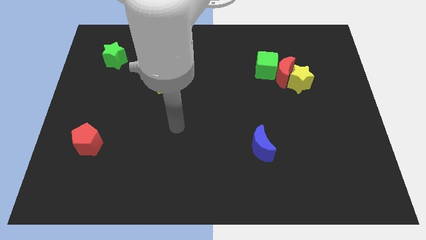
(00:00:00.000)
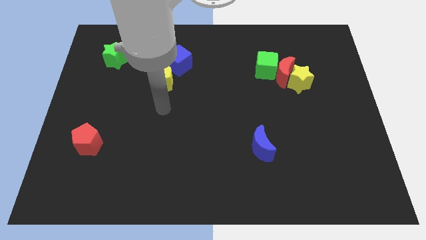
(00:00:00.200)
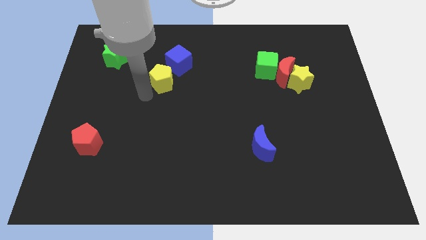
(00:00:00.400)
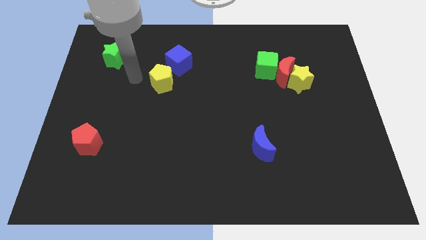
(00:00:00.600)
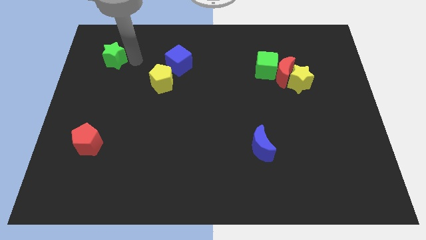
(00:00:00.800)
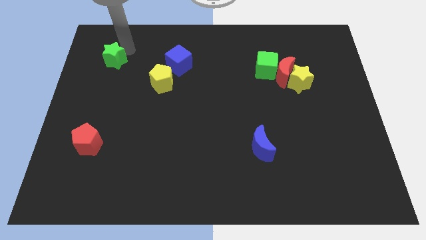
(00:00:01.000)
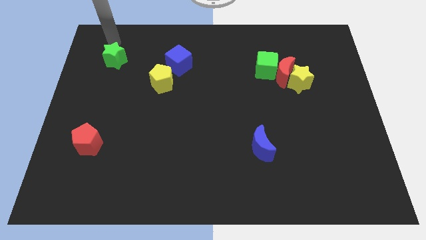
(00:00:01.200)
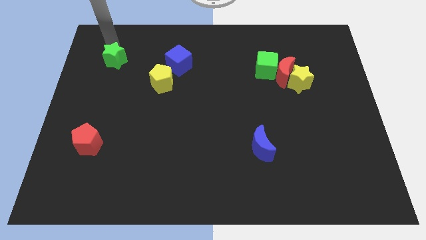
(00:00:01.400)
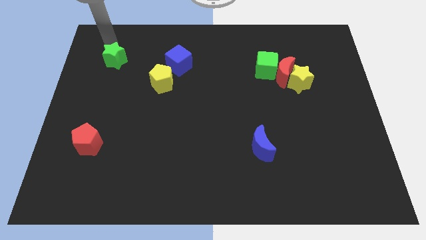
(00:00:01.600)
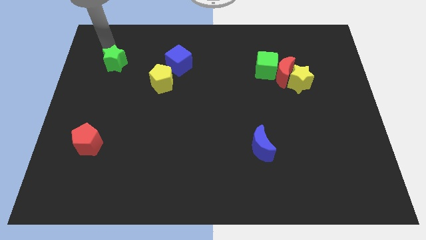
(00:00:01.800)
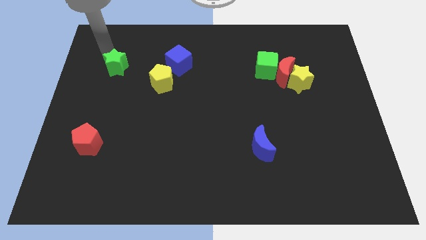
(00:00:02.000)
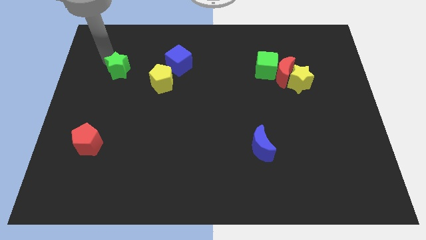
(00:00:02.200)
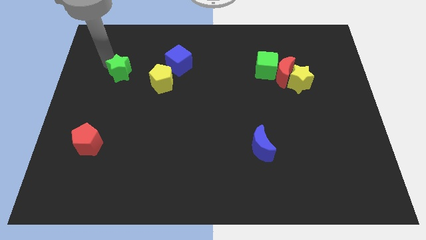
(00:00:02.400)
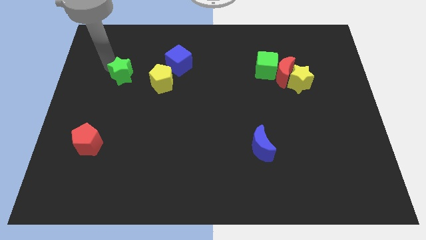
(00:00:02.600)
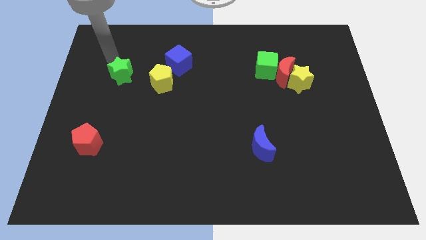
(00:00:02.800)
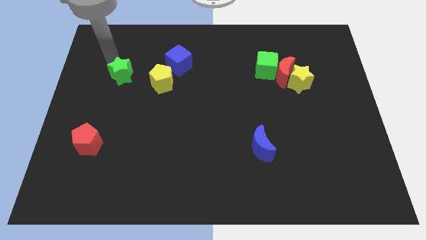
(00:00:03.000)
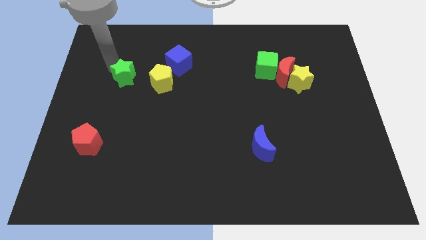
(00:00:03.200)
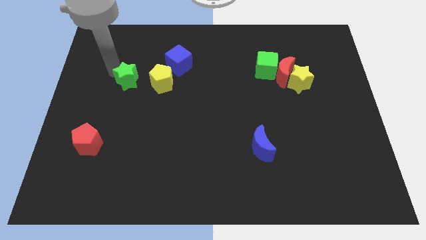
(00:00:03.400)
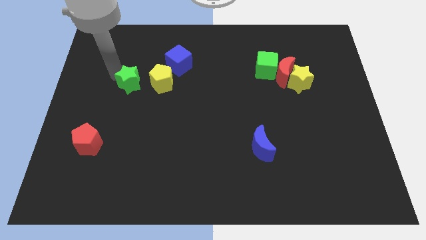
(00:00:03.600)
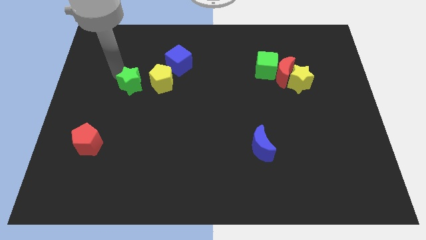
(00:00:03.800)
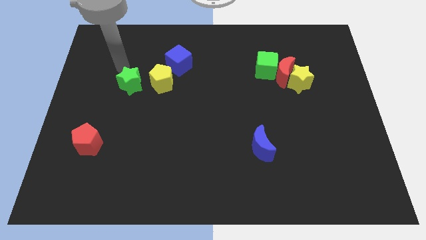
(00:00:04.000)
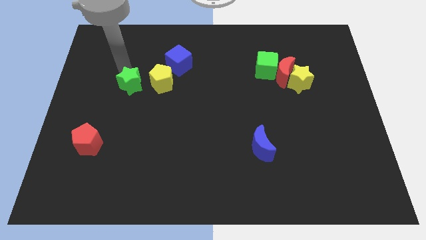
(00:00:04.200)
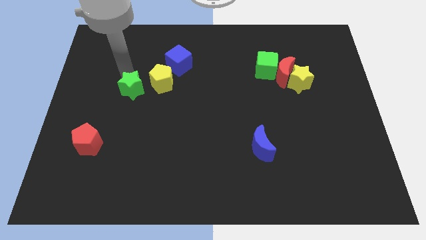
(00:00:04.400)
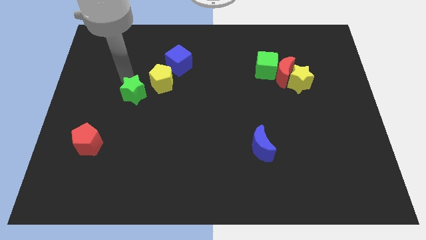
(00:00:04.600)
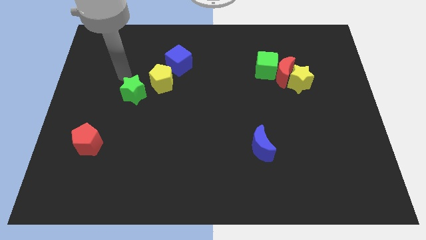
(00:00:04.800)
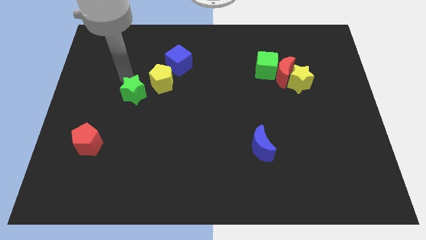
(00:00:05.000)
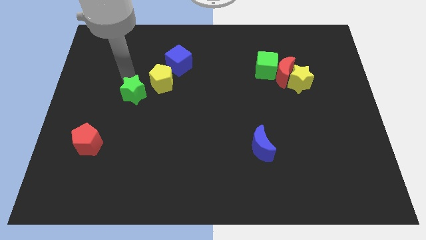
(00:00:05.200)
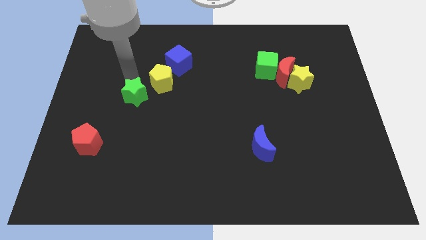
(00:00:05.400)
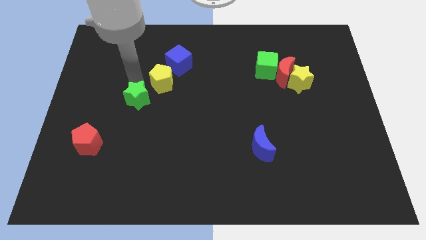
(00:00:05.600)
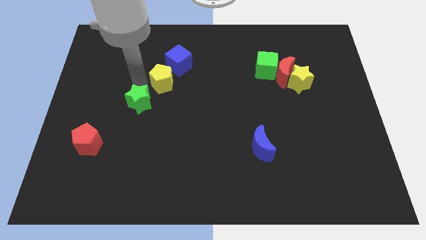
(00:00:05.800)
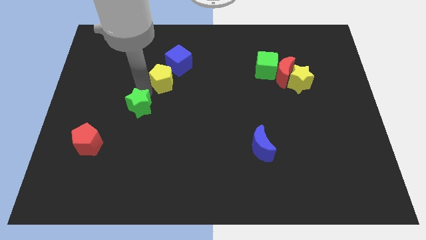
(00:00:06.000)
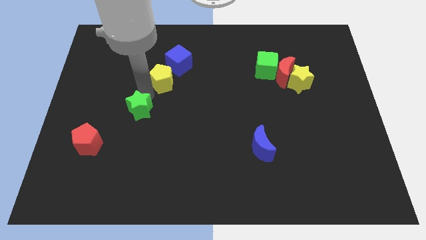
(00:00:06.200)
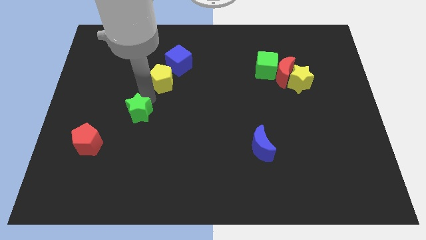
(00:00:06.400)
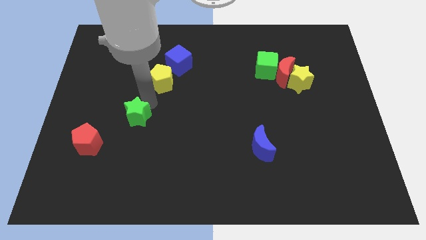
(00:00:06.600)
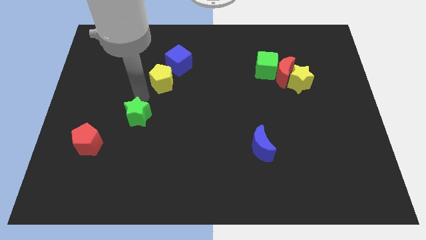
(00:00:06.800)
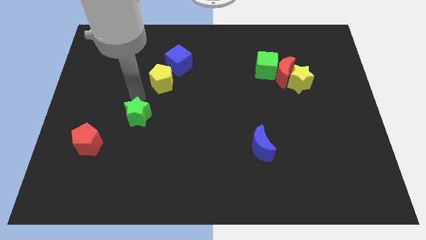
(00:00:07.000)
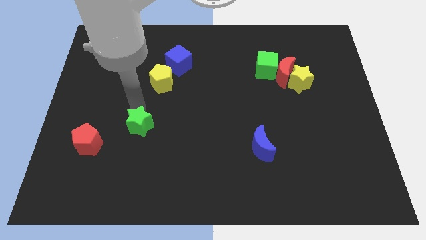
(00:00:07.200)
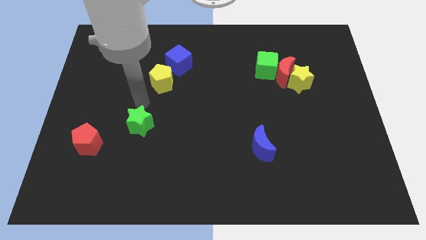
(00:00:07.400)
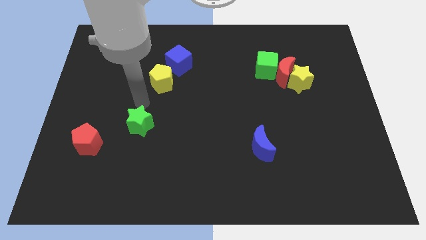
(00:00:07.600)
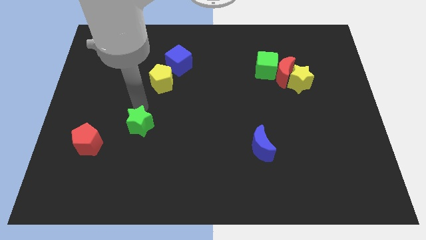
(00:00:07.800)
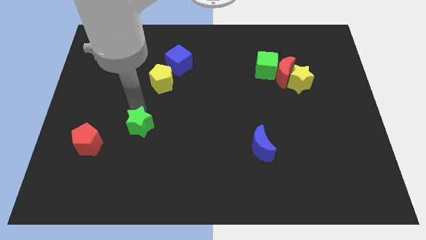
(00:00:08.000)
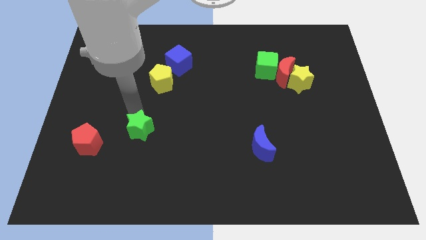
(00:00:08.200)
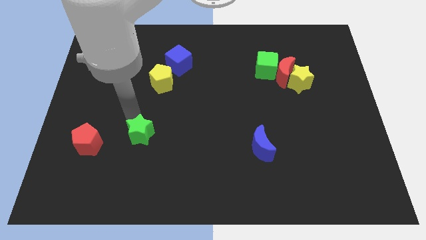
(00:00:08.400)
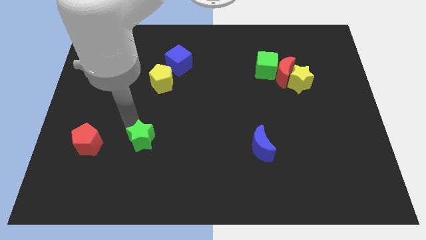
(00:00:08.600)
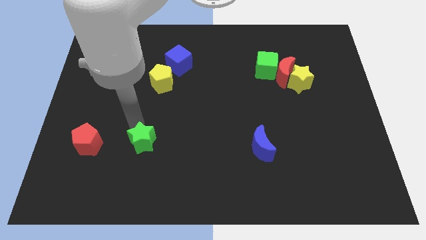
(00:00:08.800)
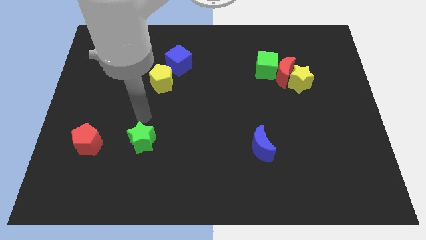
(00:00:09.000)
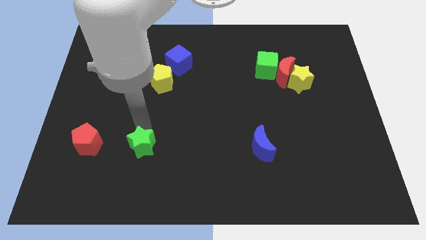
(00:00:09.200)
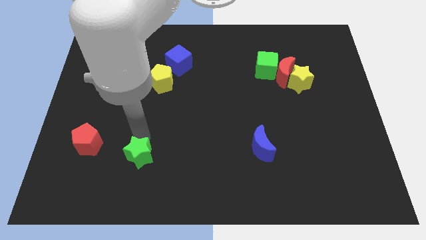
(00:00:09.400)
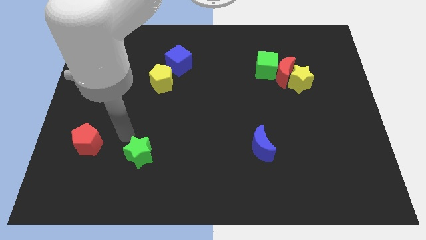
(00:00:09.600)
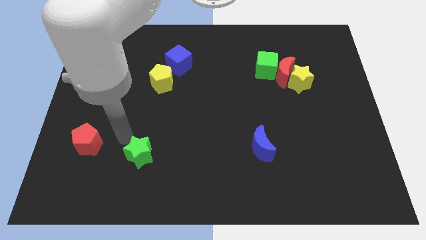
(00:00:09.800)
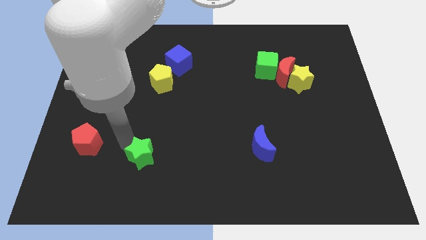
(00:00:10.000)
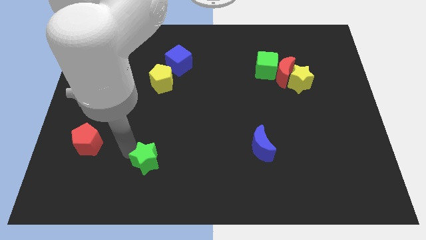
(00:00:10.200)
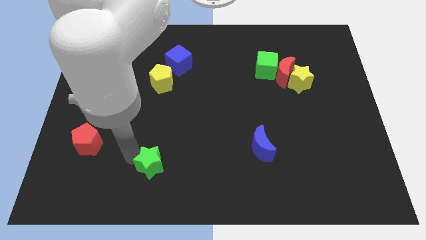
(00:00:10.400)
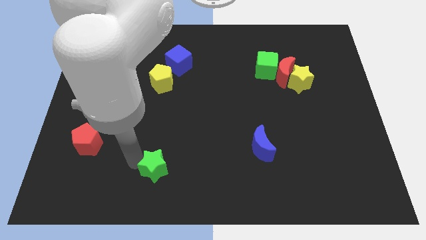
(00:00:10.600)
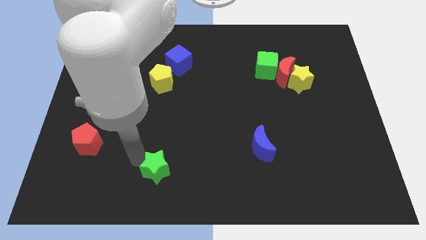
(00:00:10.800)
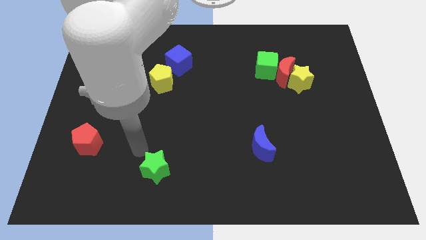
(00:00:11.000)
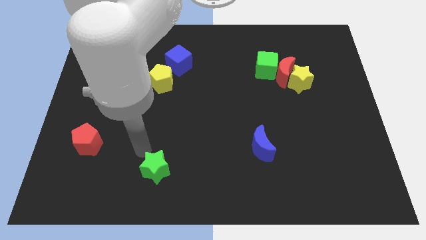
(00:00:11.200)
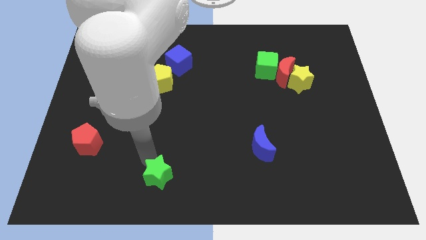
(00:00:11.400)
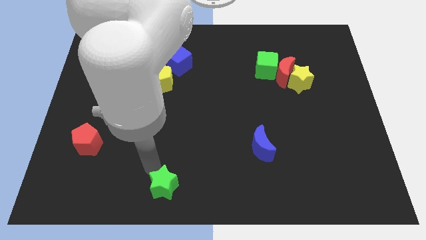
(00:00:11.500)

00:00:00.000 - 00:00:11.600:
push the green star to the bottom

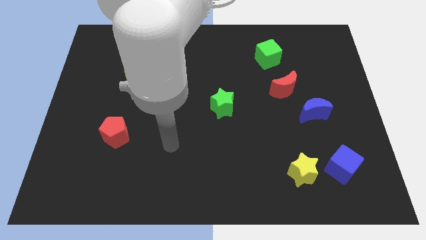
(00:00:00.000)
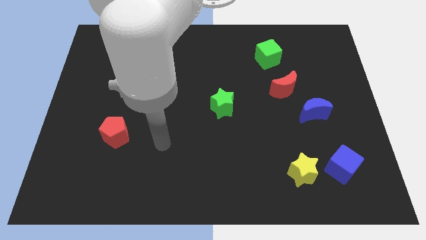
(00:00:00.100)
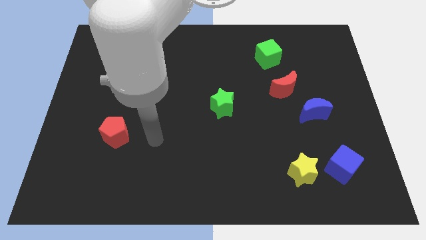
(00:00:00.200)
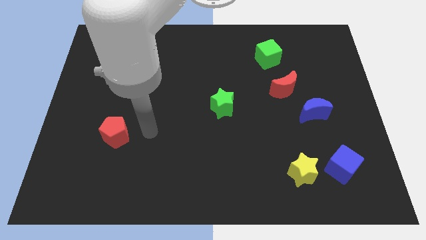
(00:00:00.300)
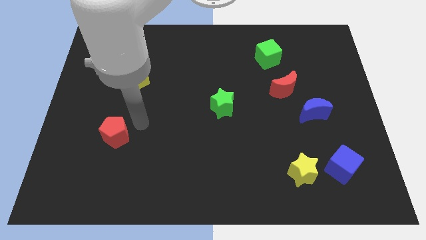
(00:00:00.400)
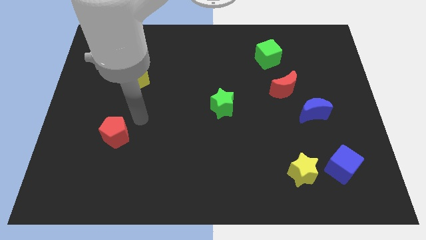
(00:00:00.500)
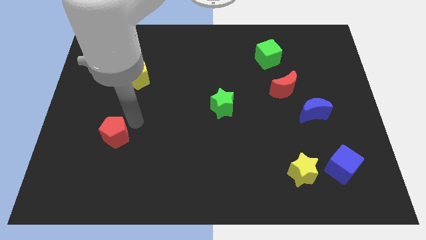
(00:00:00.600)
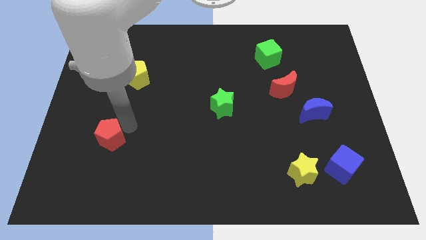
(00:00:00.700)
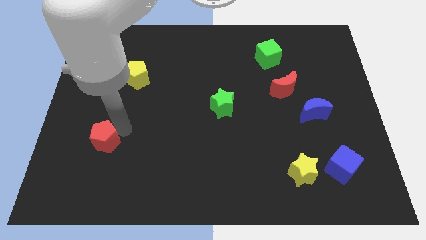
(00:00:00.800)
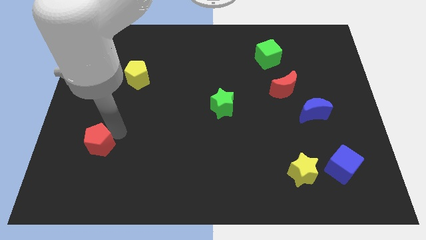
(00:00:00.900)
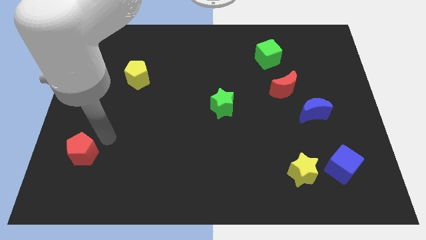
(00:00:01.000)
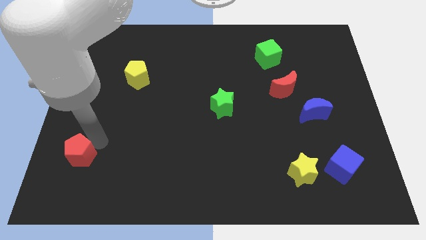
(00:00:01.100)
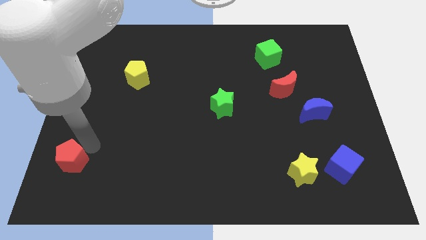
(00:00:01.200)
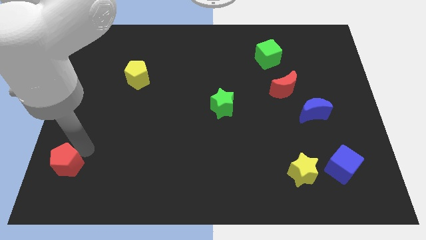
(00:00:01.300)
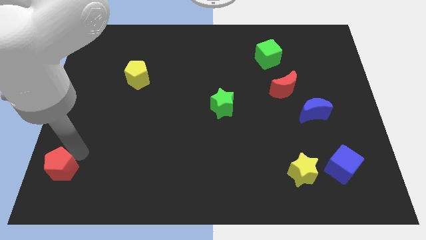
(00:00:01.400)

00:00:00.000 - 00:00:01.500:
move the red pentagon to the bottom left of the board
